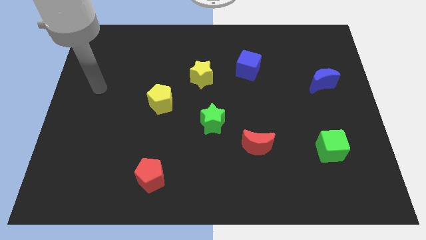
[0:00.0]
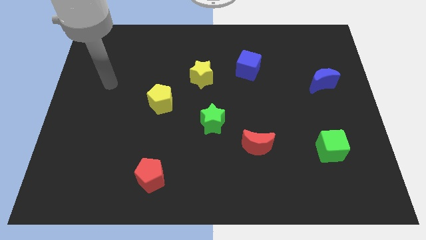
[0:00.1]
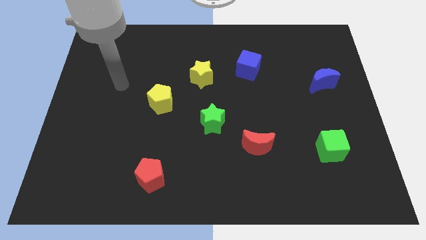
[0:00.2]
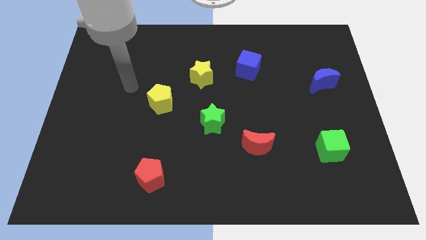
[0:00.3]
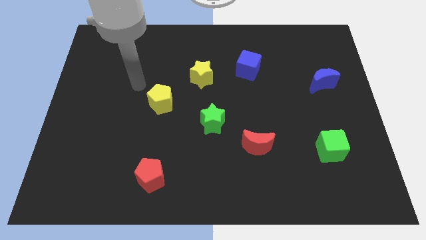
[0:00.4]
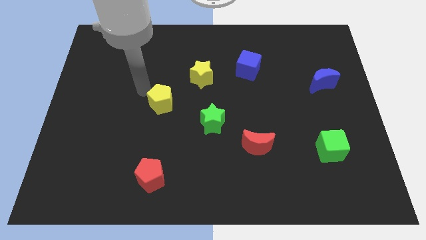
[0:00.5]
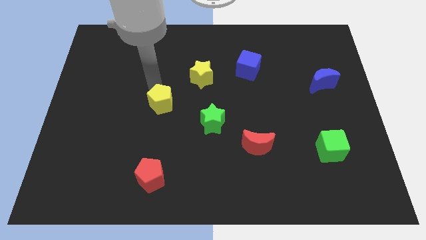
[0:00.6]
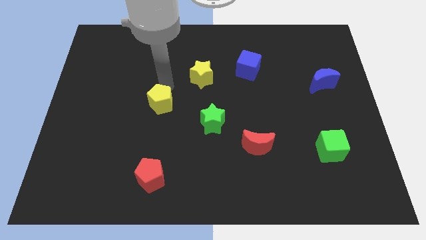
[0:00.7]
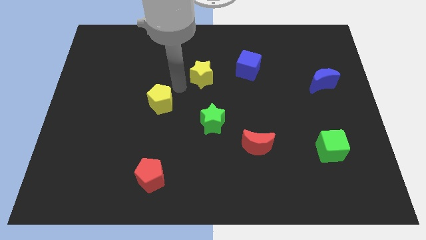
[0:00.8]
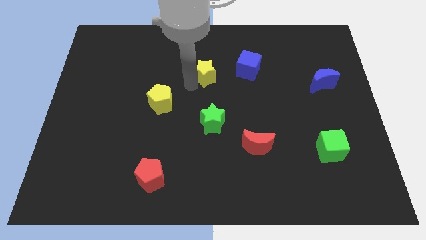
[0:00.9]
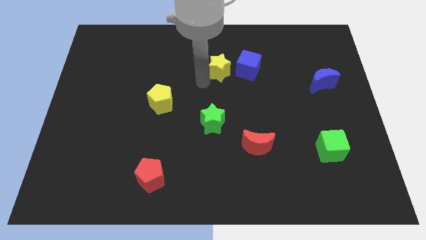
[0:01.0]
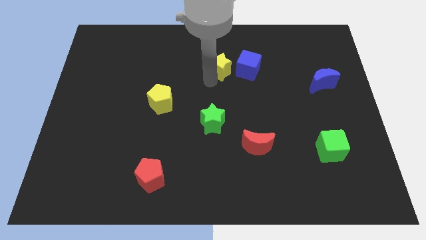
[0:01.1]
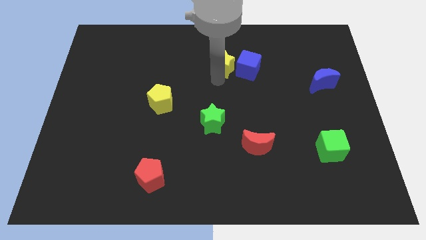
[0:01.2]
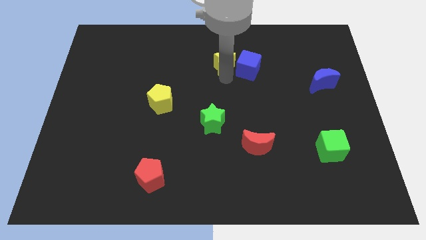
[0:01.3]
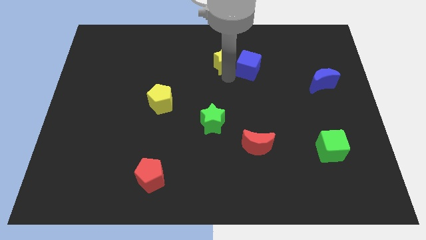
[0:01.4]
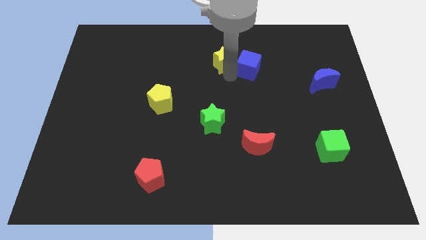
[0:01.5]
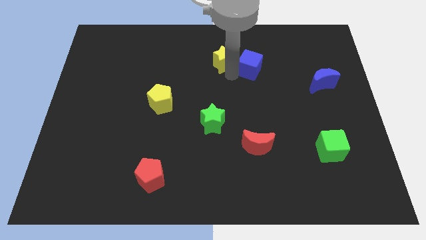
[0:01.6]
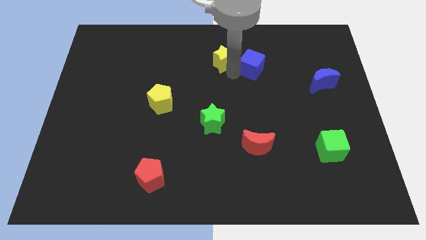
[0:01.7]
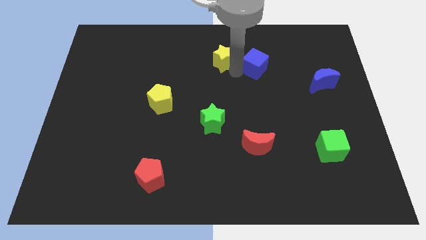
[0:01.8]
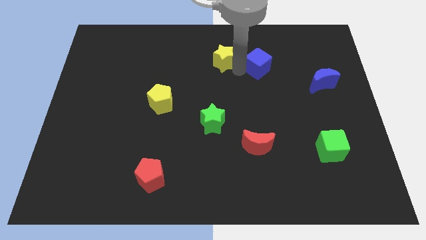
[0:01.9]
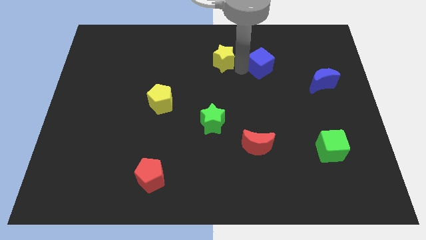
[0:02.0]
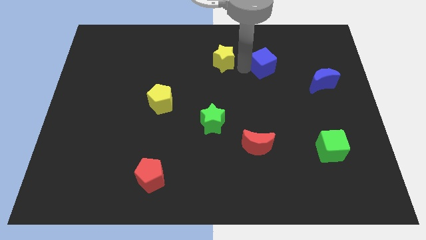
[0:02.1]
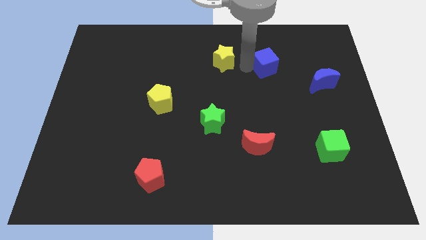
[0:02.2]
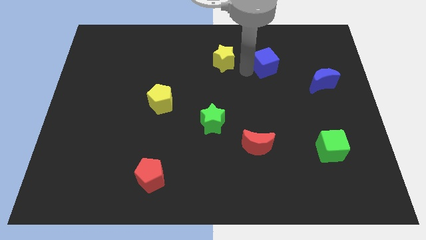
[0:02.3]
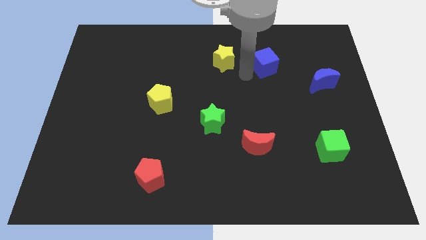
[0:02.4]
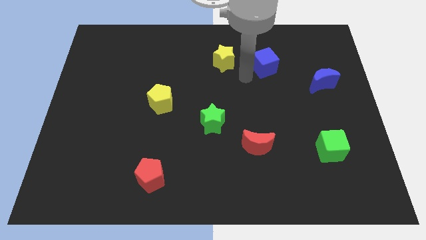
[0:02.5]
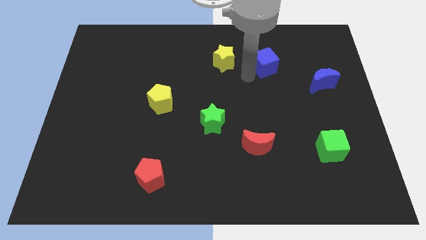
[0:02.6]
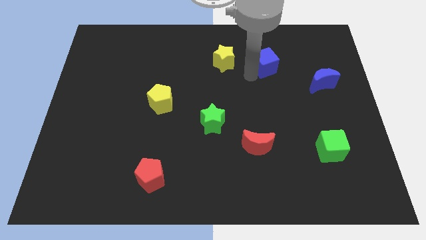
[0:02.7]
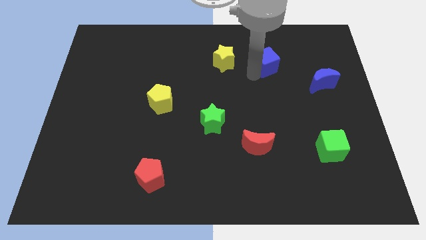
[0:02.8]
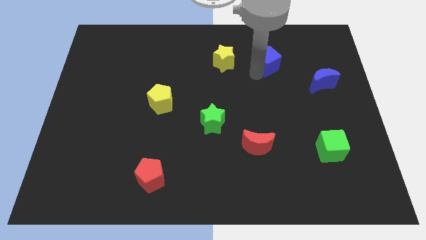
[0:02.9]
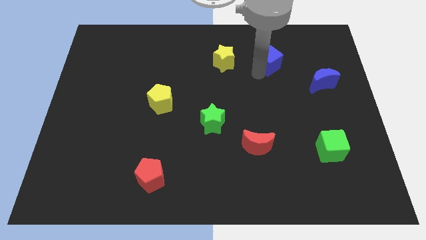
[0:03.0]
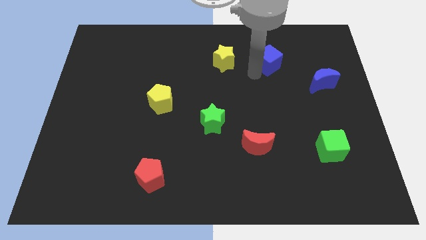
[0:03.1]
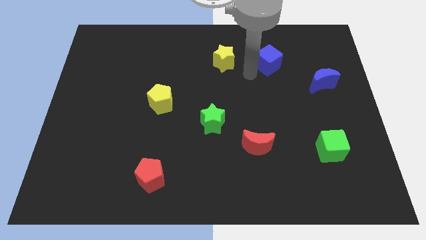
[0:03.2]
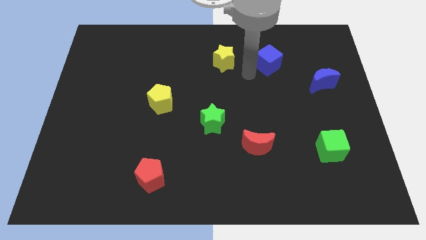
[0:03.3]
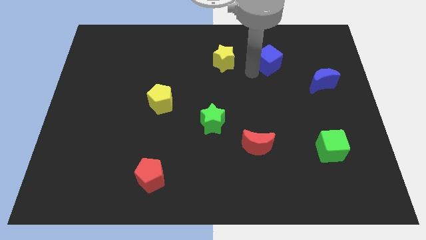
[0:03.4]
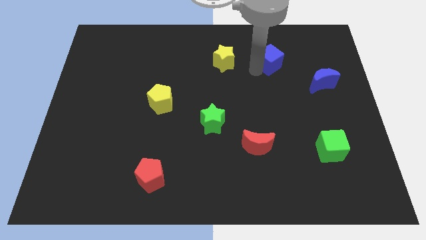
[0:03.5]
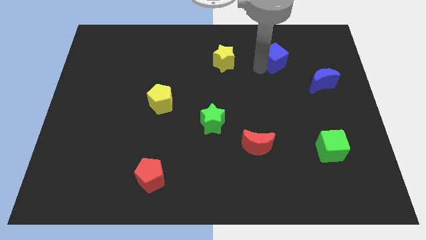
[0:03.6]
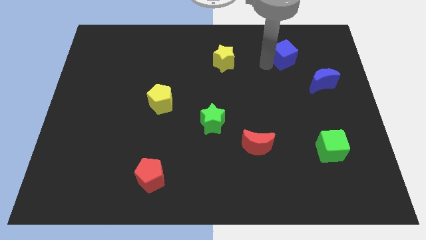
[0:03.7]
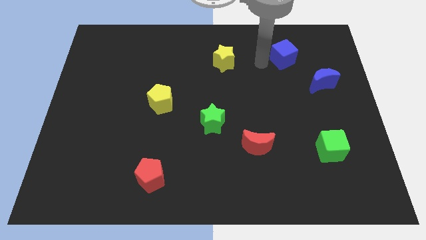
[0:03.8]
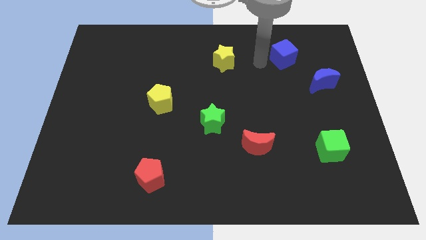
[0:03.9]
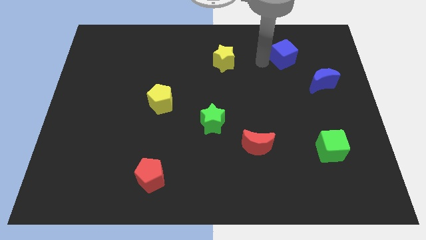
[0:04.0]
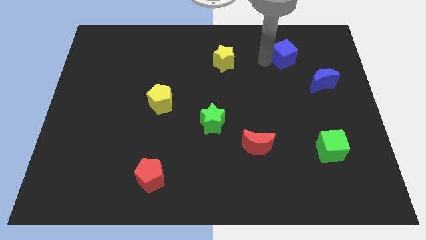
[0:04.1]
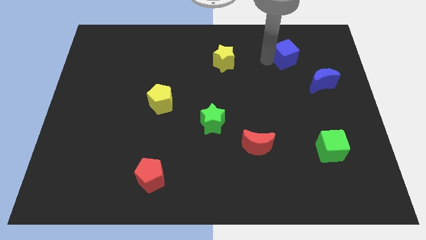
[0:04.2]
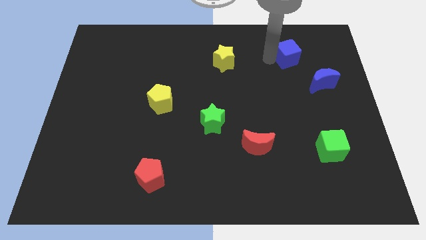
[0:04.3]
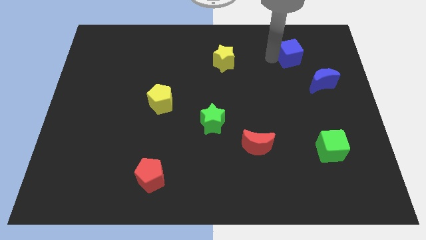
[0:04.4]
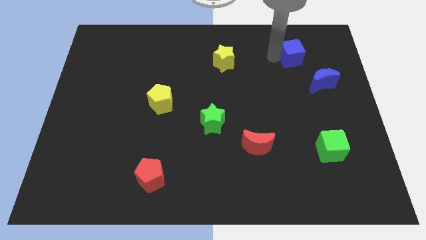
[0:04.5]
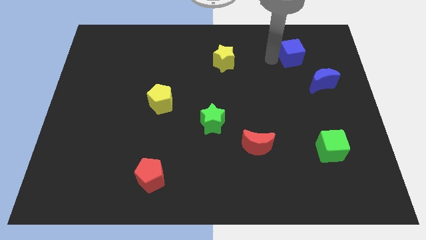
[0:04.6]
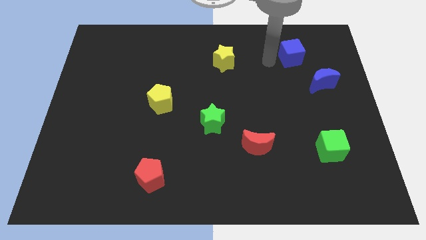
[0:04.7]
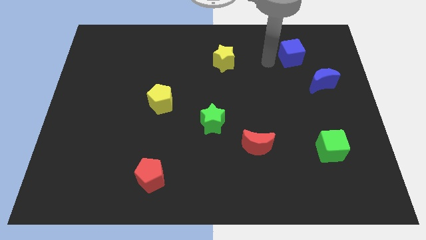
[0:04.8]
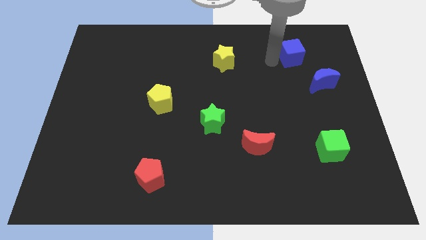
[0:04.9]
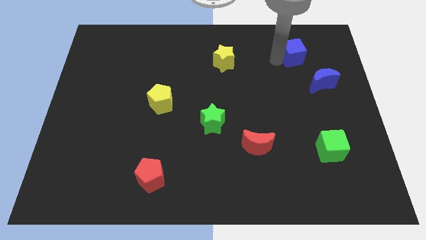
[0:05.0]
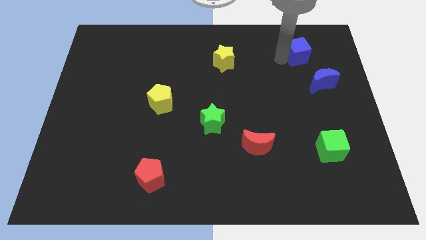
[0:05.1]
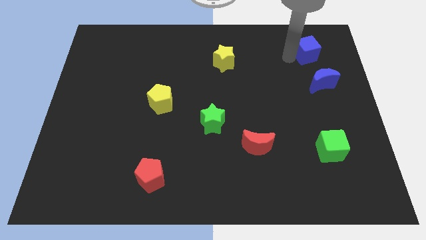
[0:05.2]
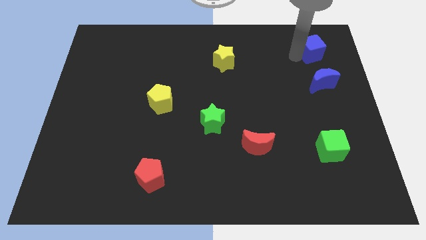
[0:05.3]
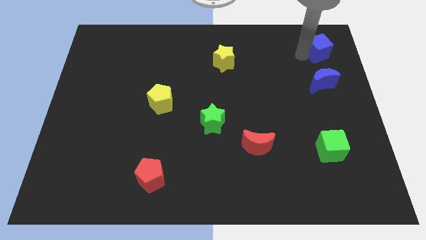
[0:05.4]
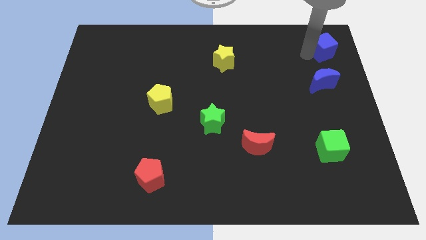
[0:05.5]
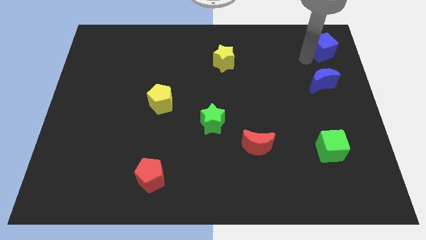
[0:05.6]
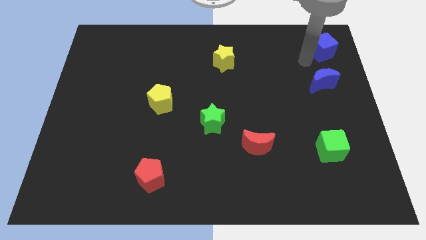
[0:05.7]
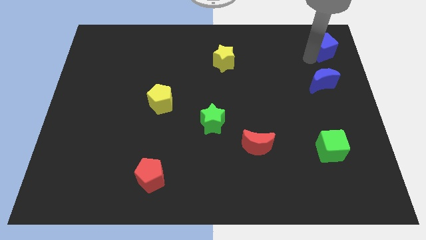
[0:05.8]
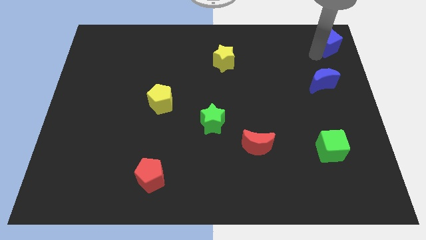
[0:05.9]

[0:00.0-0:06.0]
push the blue cube to the top right of the board
